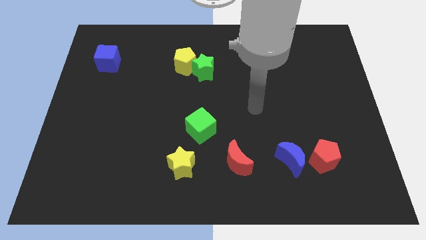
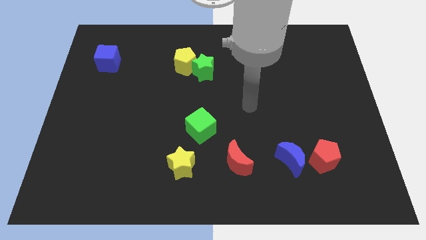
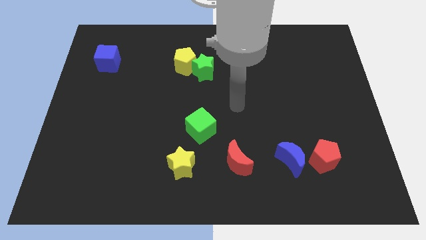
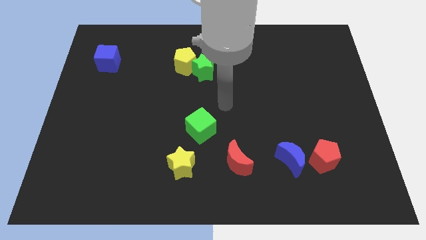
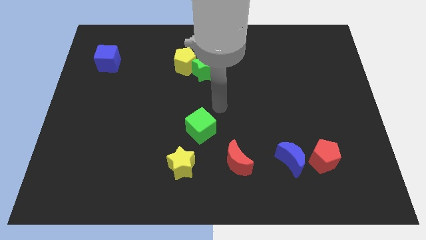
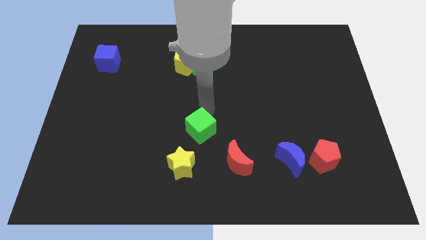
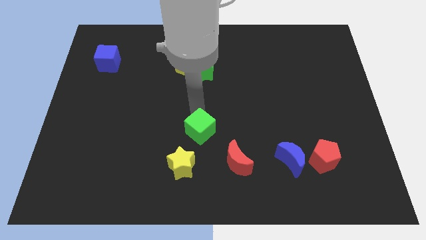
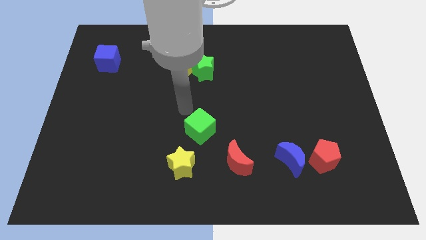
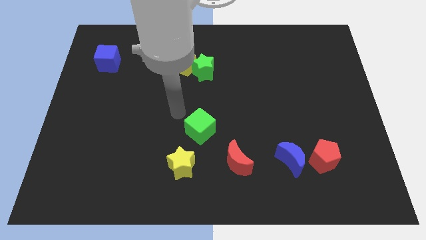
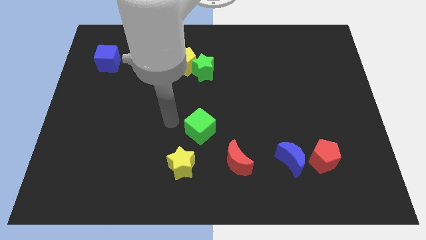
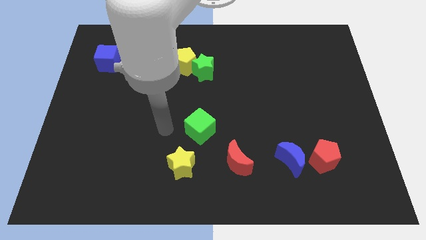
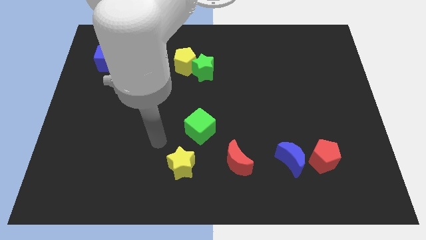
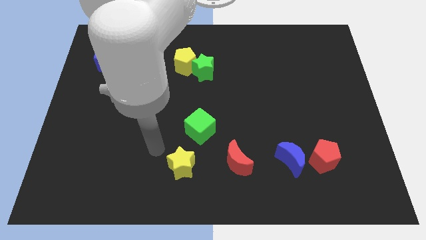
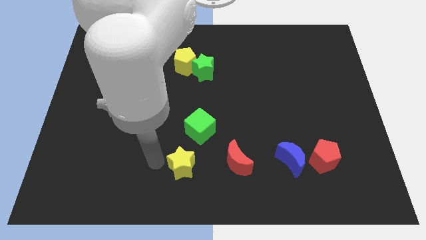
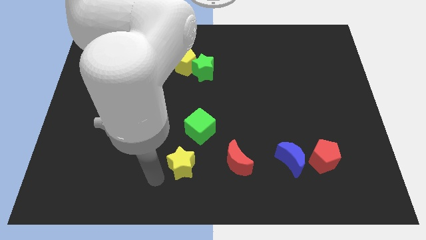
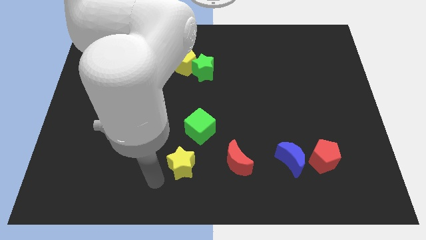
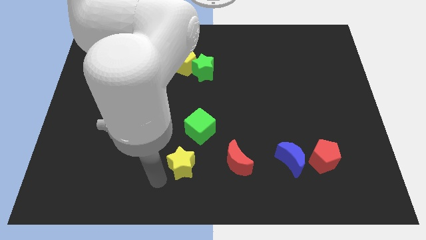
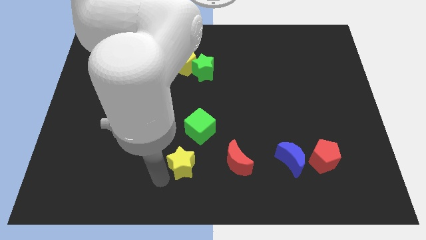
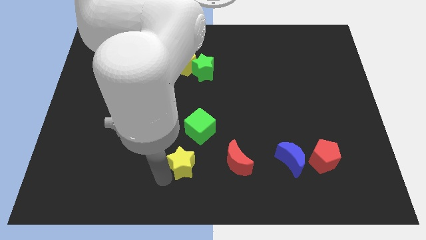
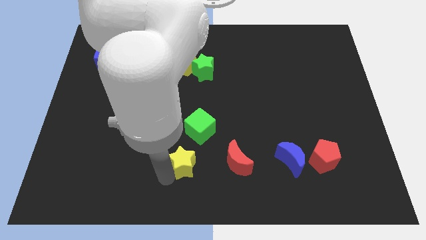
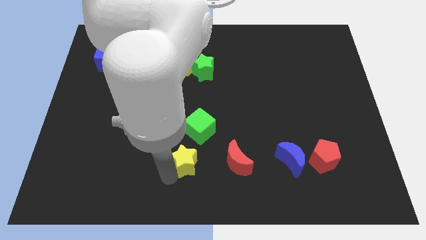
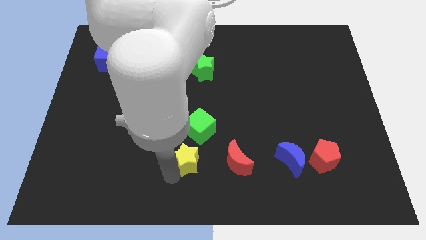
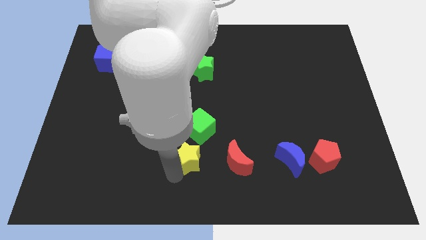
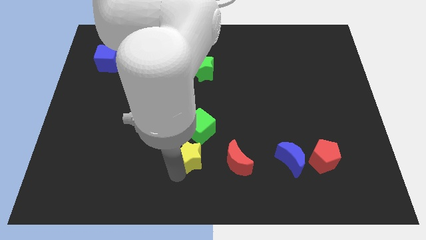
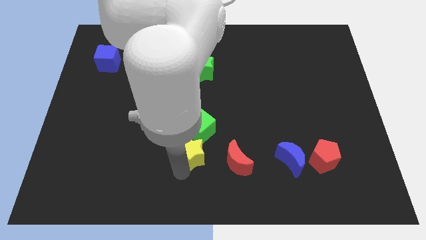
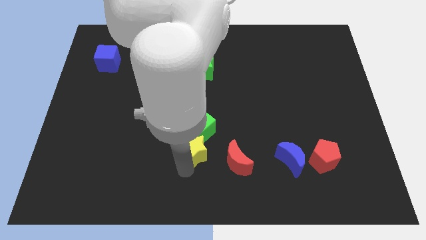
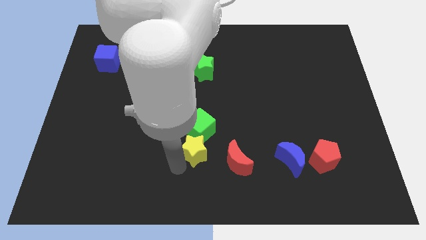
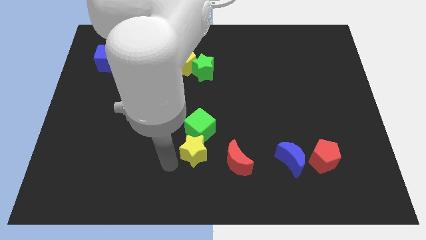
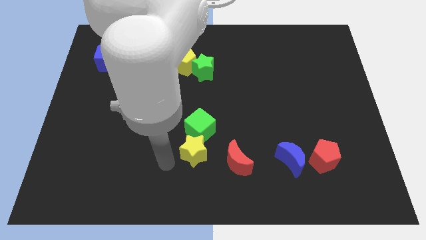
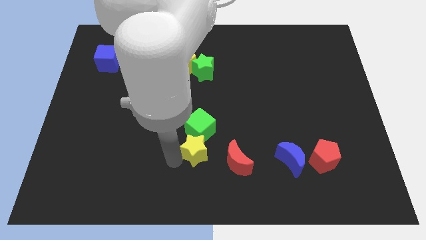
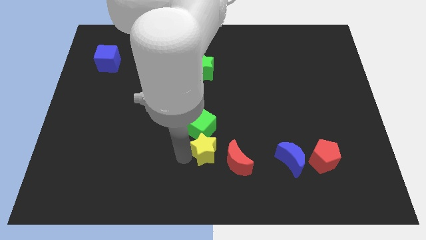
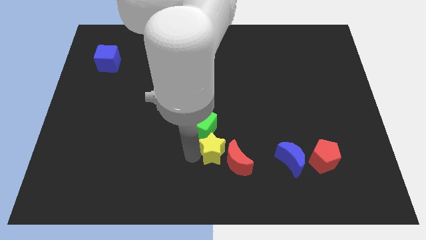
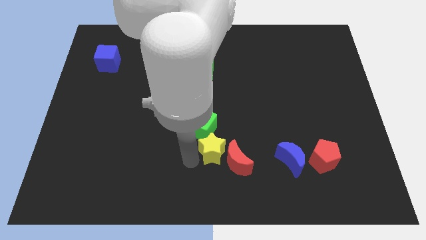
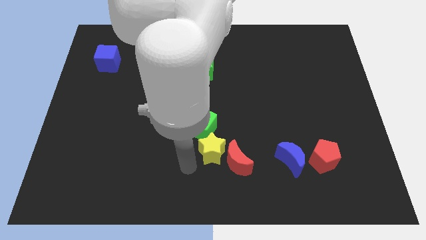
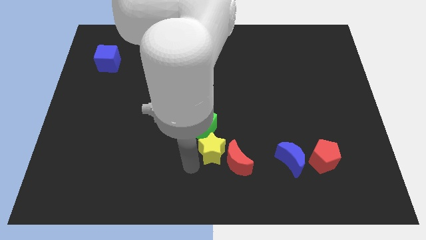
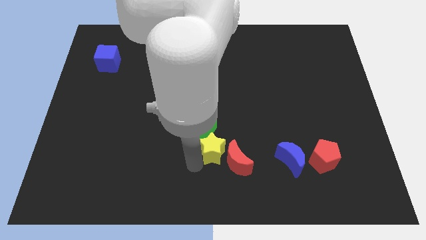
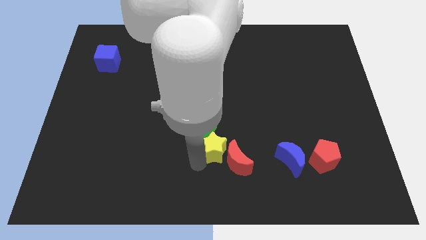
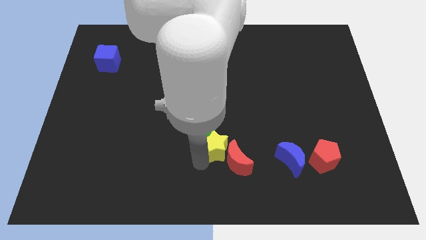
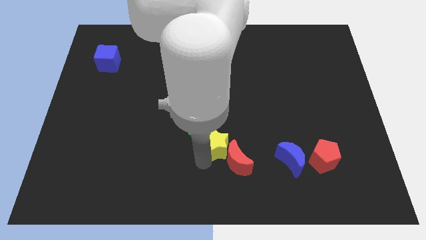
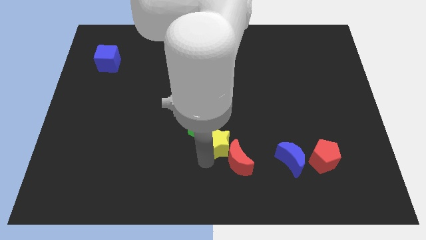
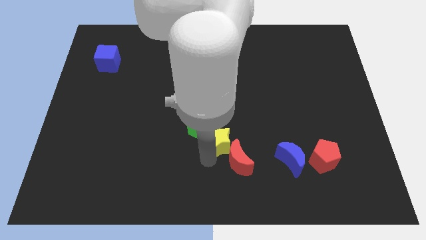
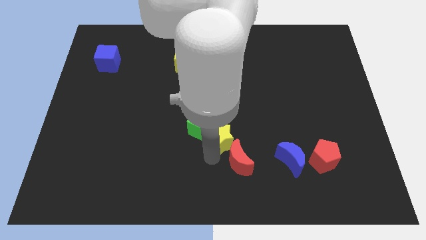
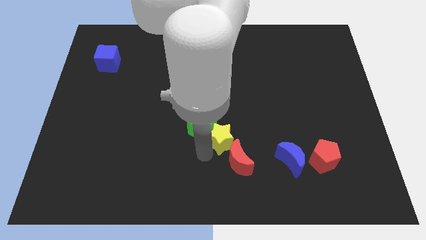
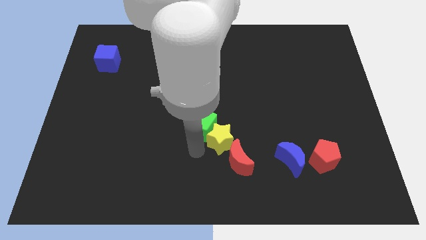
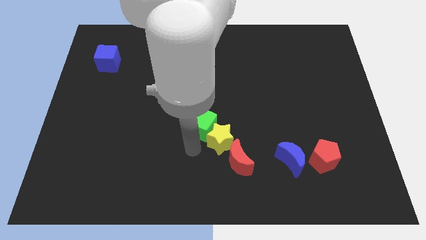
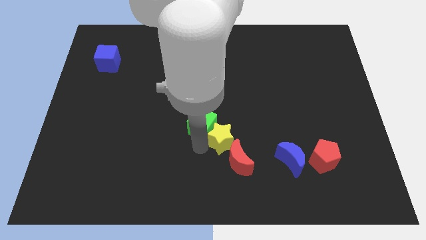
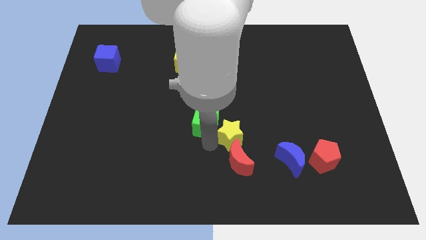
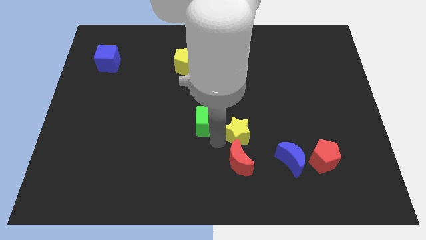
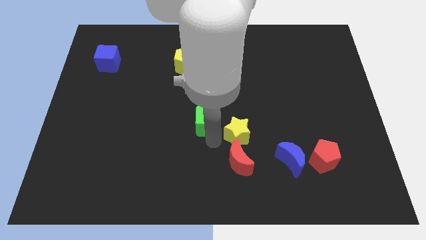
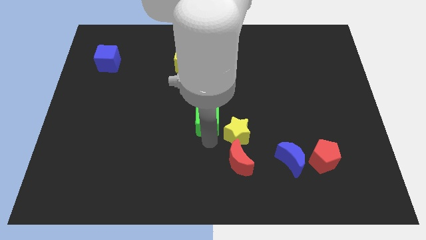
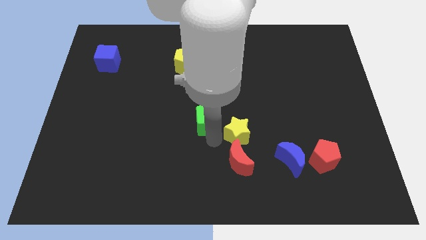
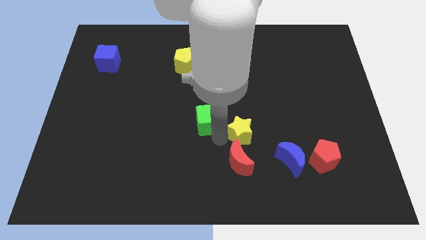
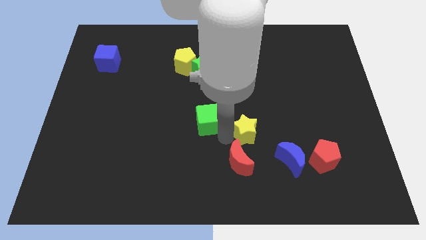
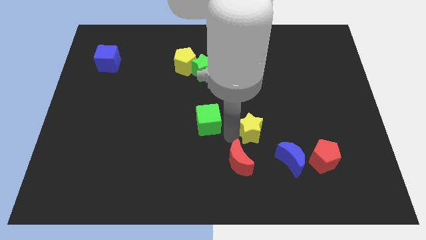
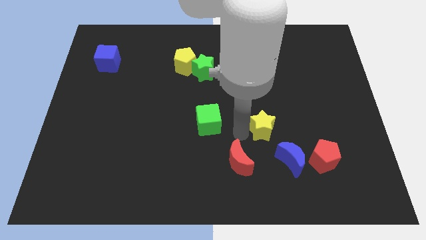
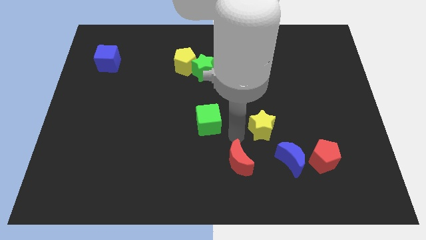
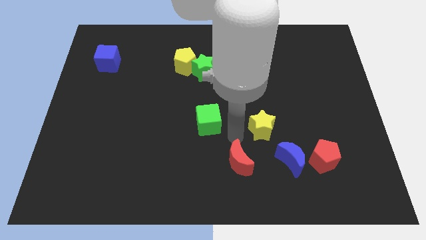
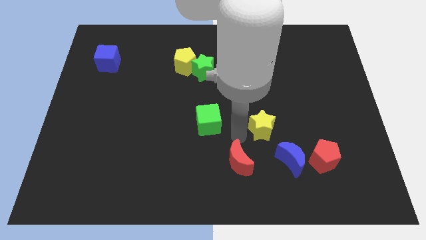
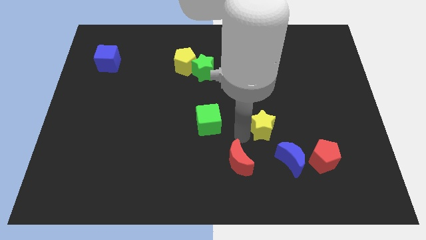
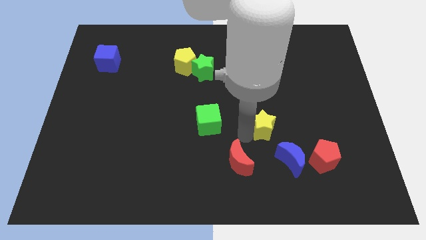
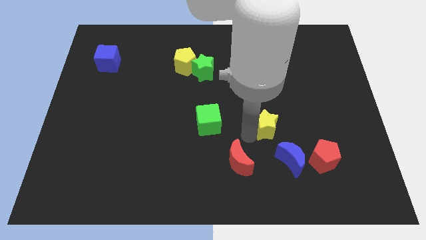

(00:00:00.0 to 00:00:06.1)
move the yellow star to the top of the blue moon

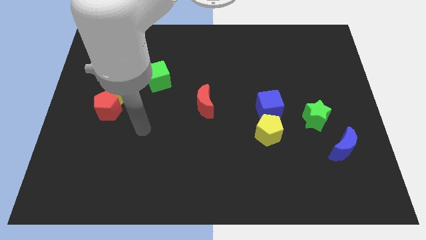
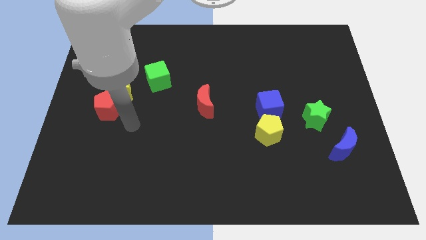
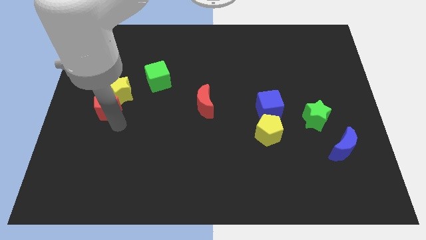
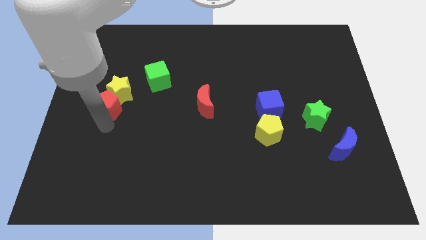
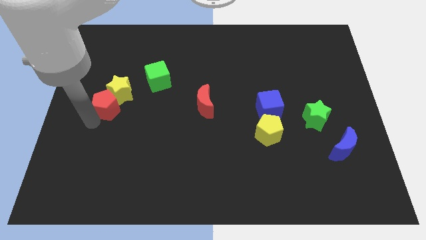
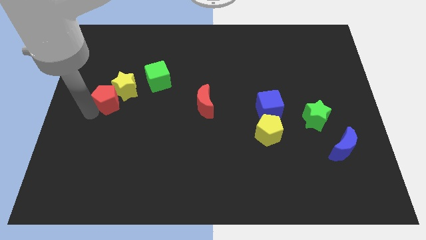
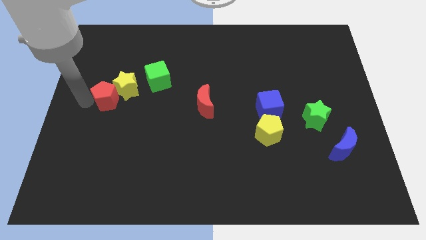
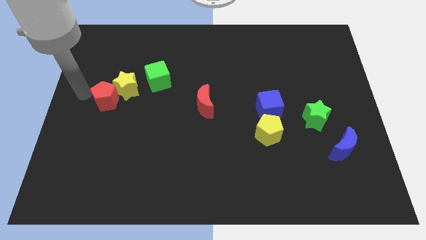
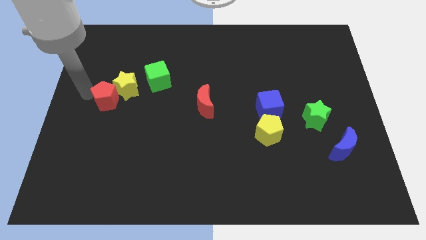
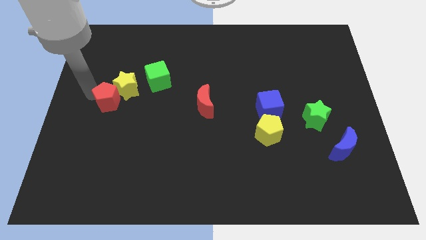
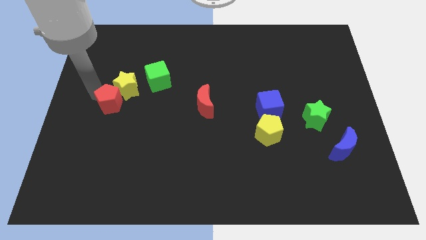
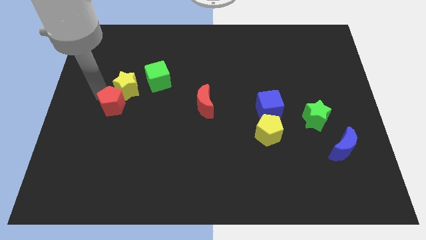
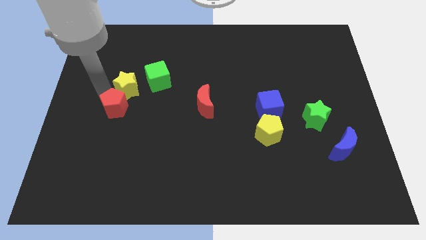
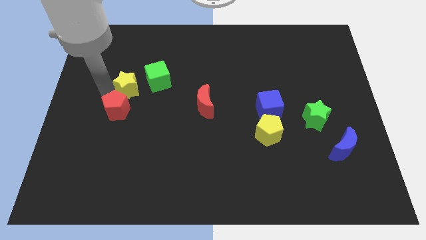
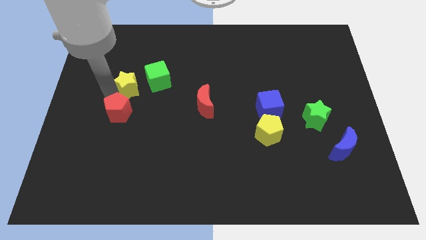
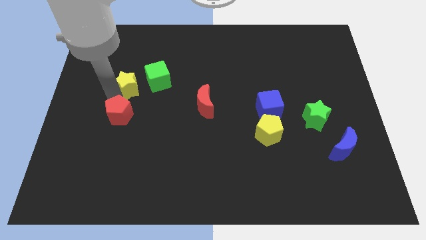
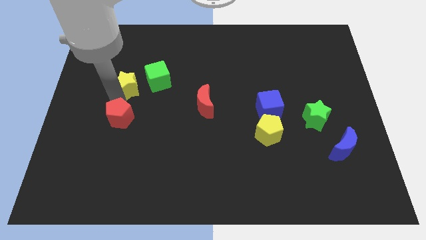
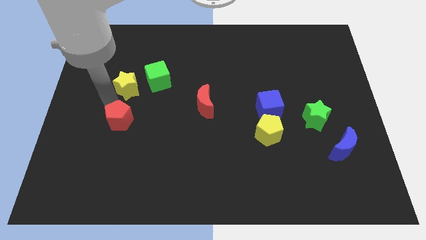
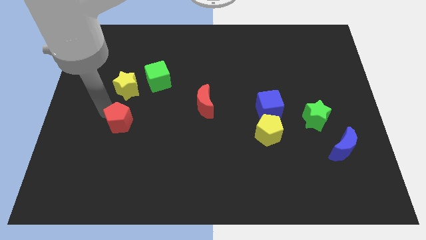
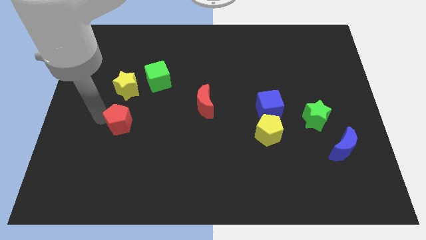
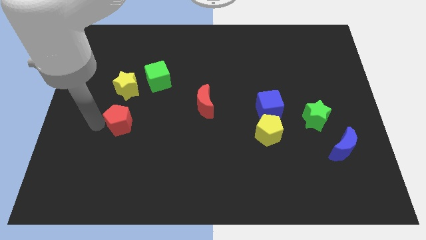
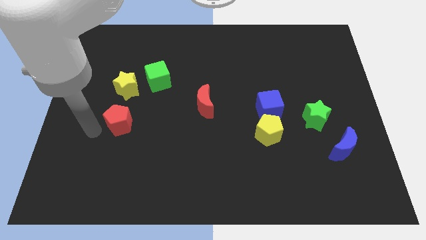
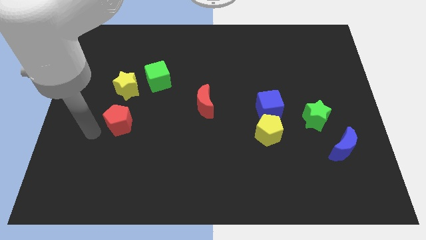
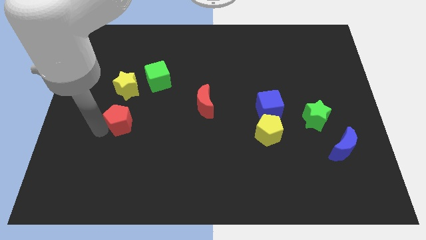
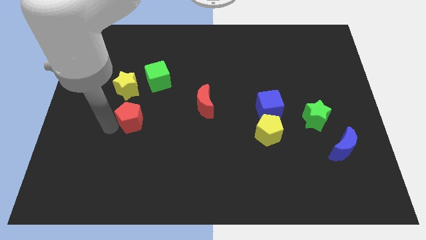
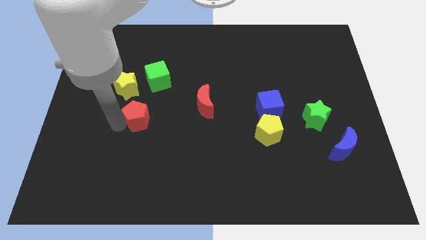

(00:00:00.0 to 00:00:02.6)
move the red pentagon to the bottom side of the green cube
